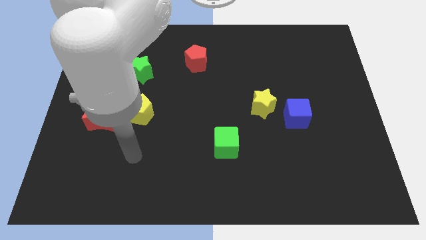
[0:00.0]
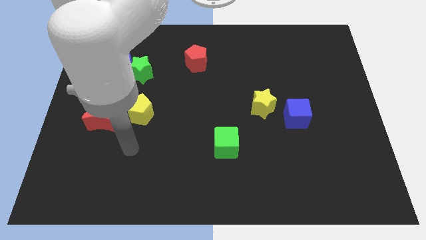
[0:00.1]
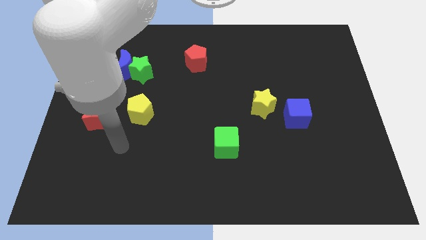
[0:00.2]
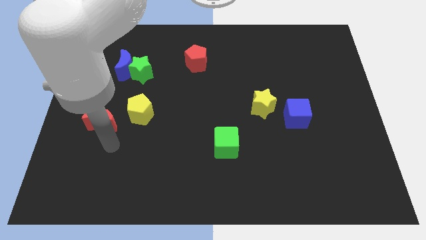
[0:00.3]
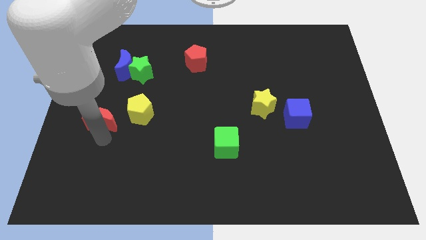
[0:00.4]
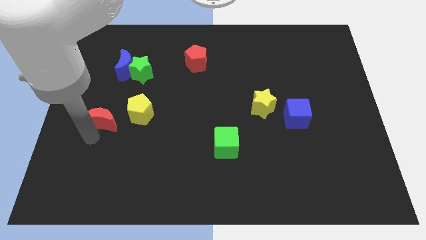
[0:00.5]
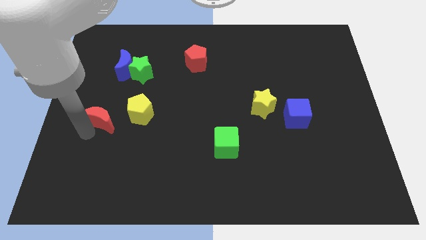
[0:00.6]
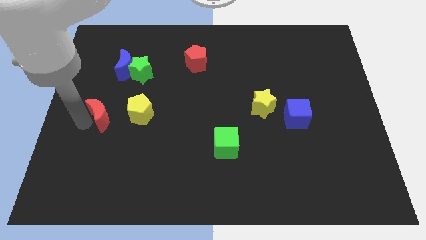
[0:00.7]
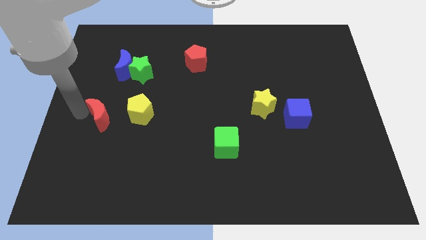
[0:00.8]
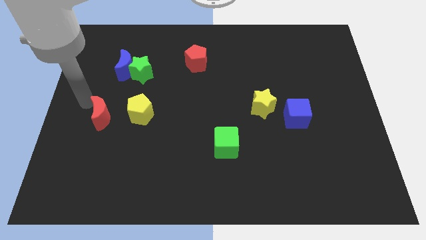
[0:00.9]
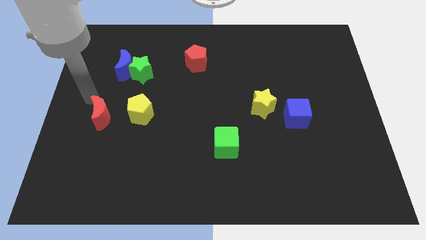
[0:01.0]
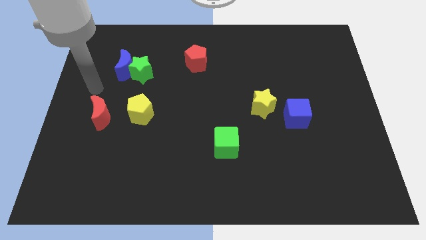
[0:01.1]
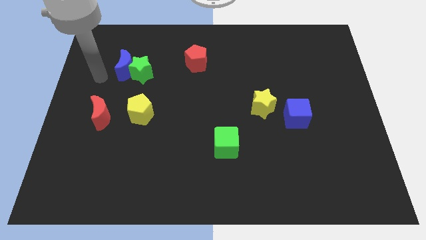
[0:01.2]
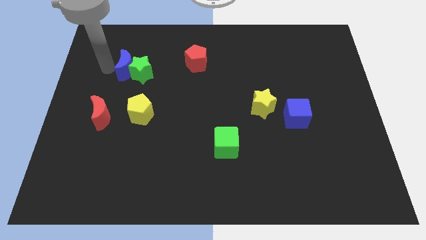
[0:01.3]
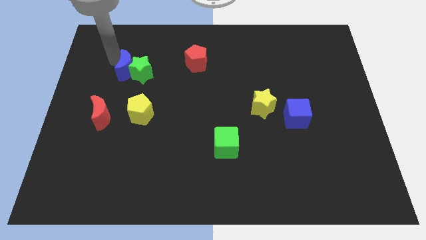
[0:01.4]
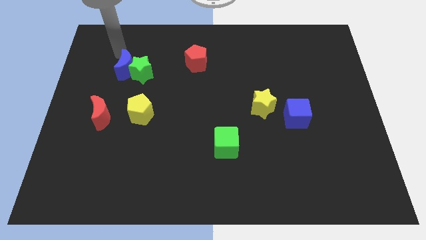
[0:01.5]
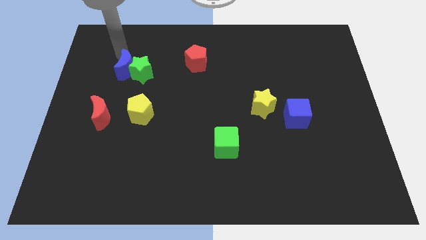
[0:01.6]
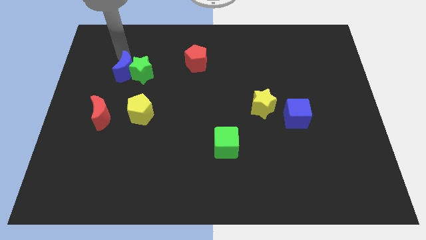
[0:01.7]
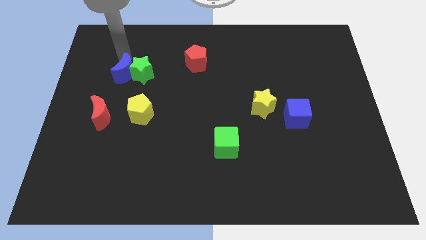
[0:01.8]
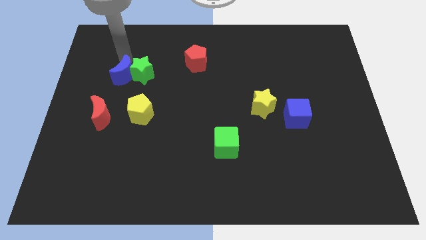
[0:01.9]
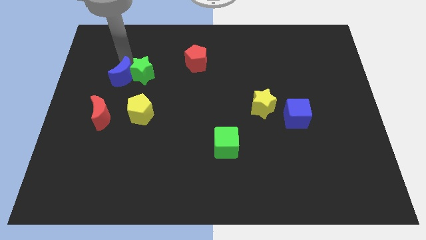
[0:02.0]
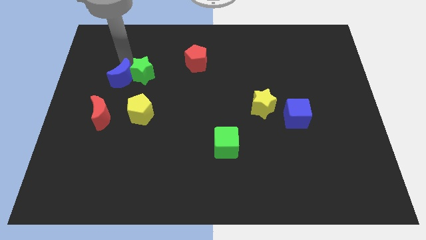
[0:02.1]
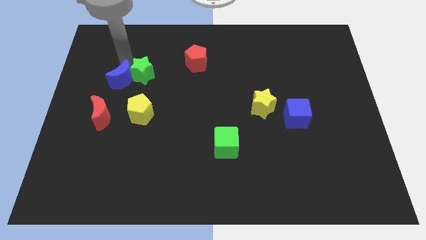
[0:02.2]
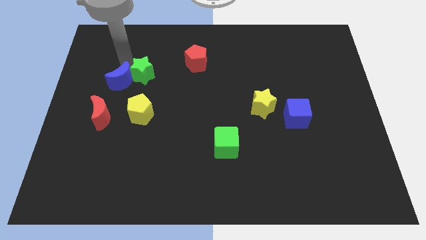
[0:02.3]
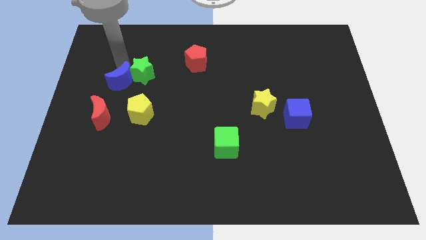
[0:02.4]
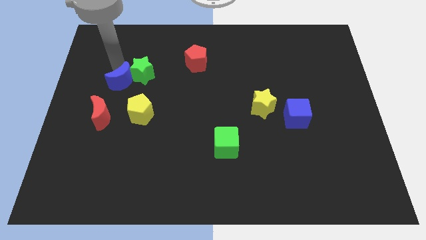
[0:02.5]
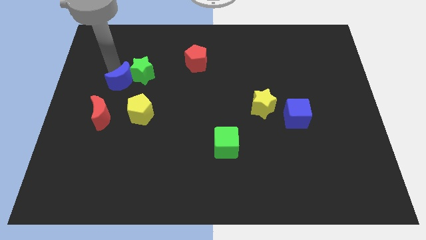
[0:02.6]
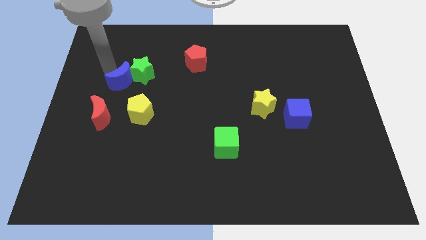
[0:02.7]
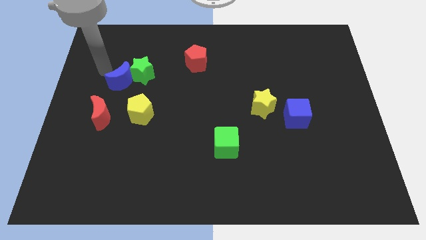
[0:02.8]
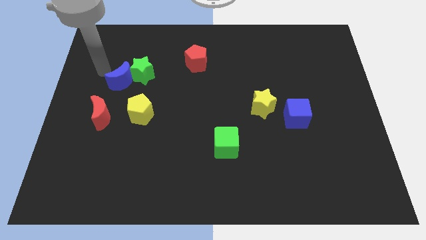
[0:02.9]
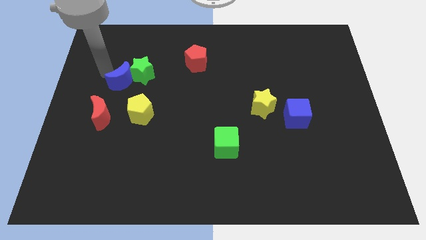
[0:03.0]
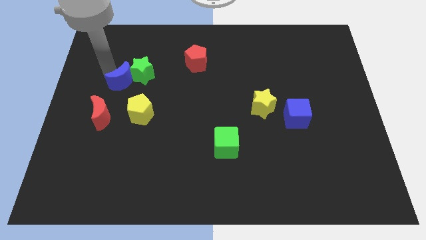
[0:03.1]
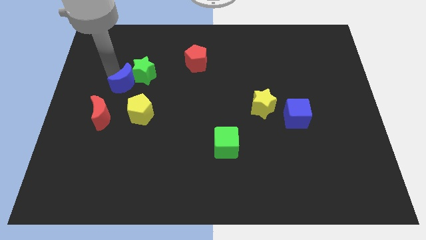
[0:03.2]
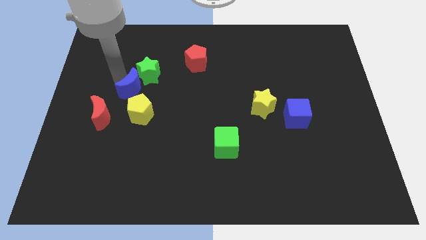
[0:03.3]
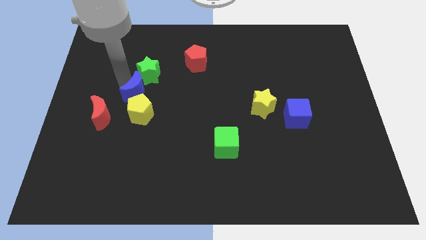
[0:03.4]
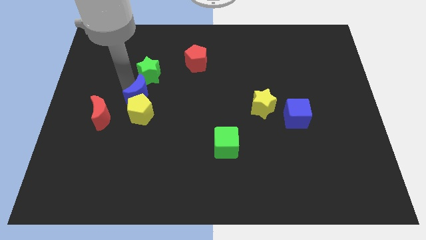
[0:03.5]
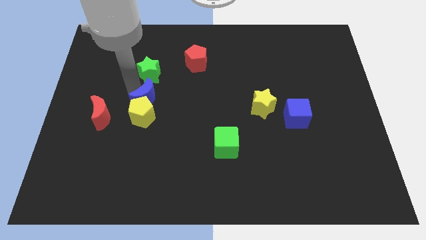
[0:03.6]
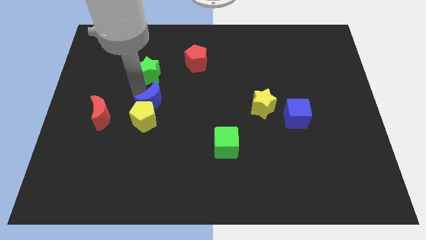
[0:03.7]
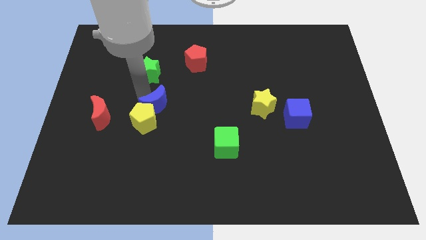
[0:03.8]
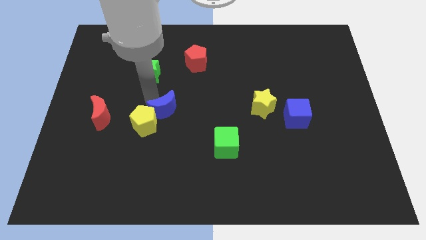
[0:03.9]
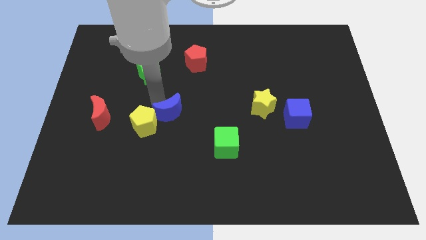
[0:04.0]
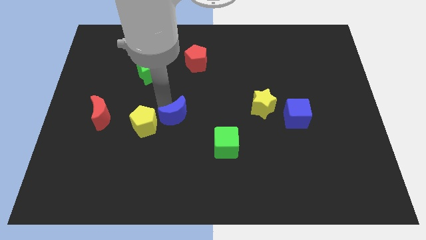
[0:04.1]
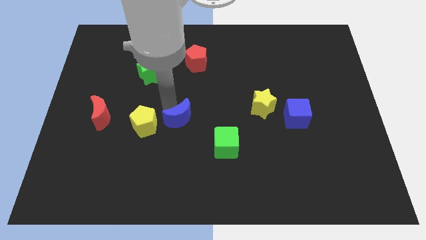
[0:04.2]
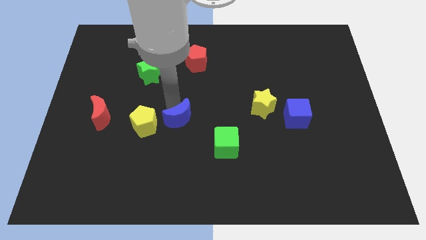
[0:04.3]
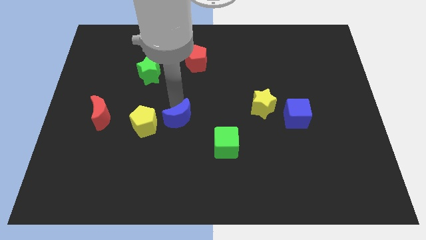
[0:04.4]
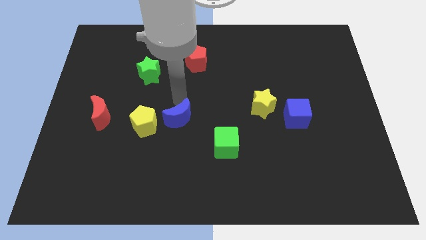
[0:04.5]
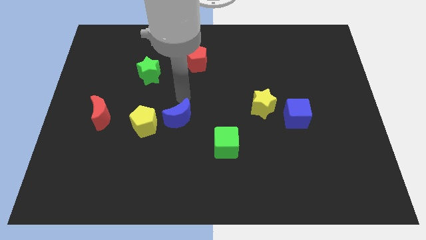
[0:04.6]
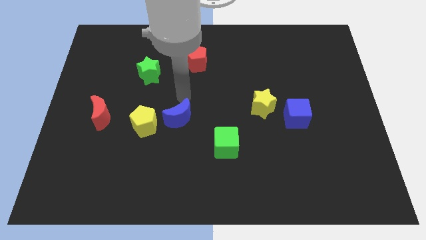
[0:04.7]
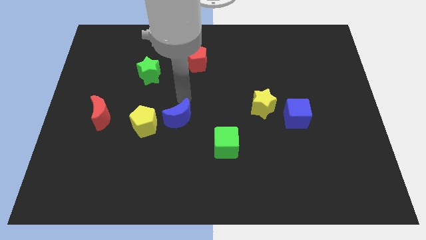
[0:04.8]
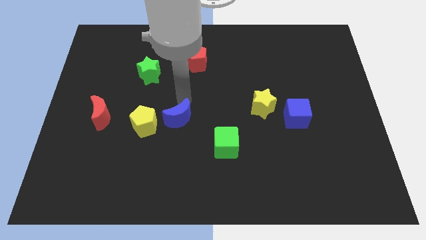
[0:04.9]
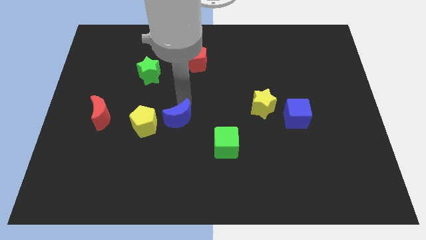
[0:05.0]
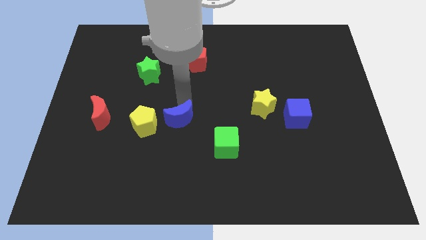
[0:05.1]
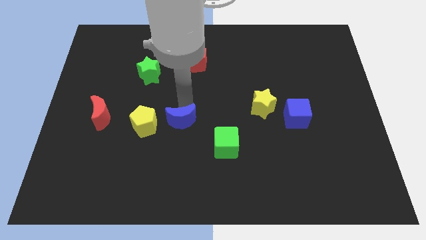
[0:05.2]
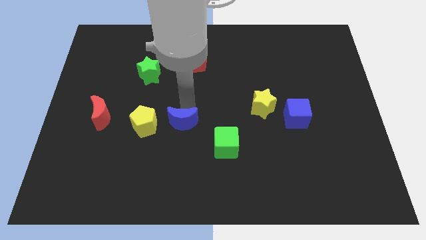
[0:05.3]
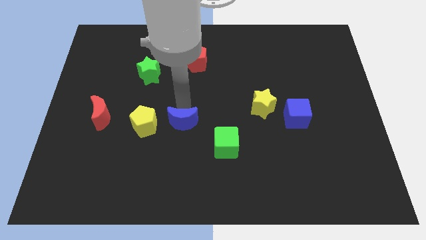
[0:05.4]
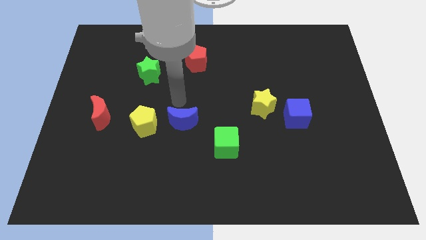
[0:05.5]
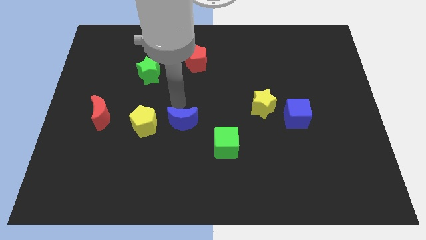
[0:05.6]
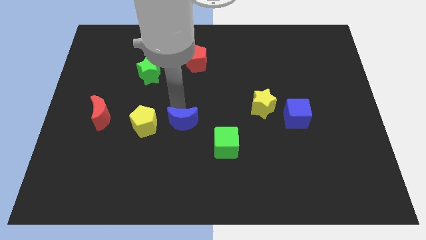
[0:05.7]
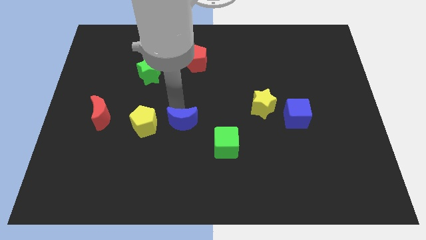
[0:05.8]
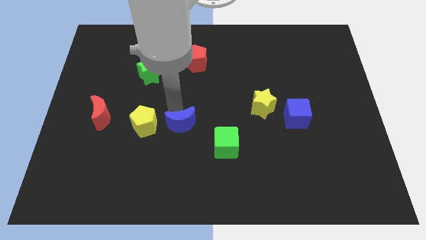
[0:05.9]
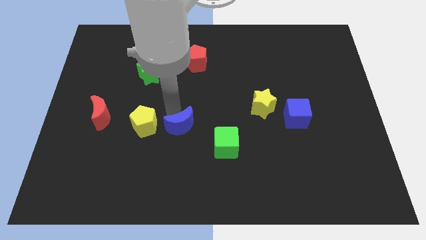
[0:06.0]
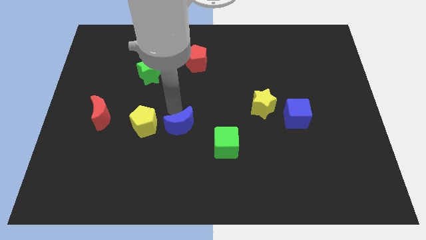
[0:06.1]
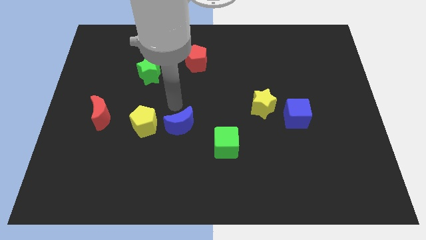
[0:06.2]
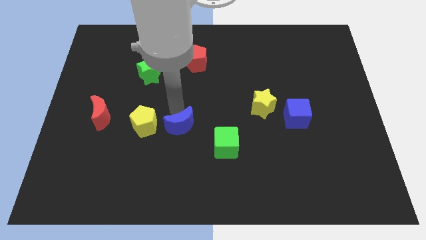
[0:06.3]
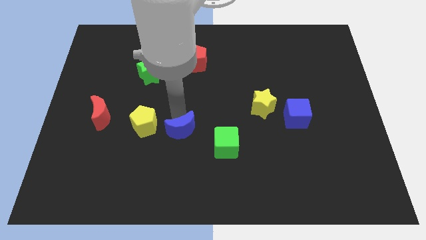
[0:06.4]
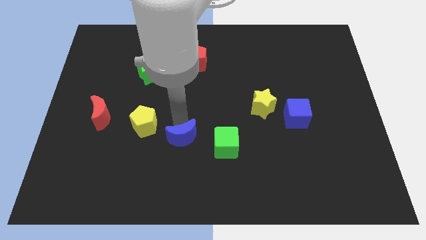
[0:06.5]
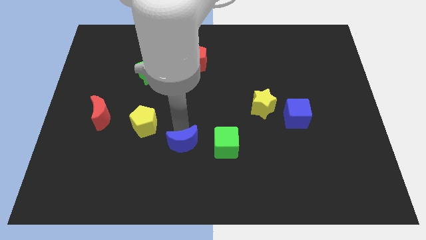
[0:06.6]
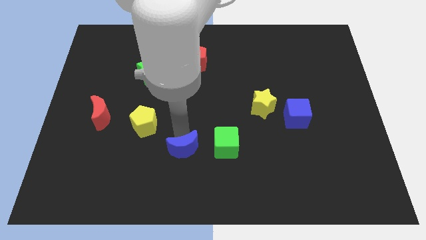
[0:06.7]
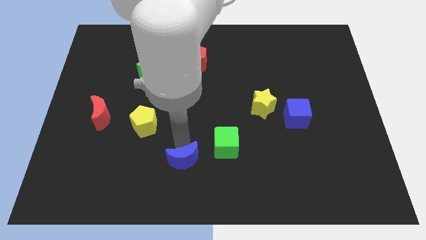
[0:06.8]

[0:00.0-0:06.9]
push the blue moon to the bottom side
